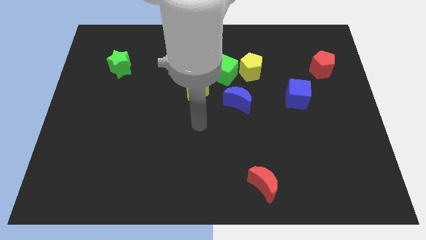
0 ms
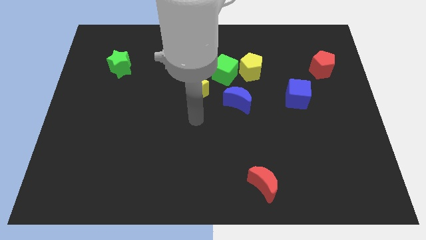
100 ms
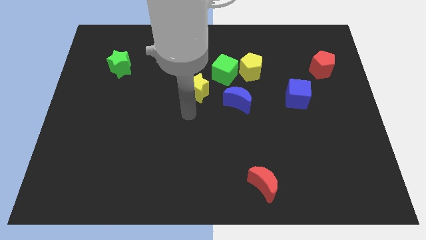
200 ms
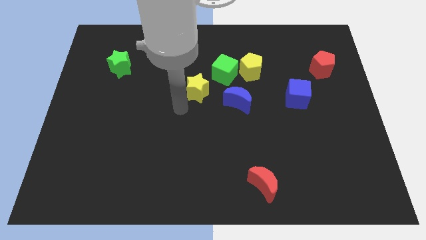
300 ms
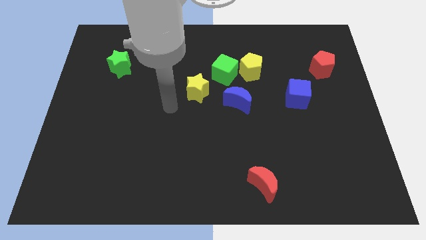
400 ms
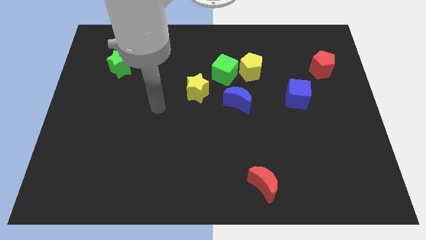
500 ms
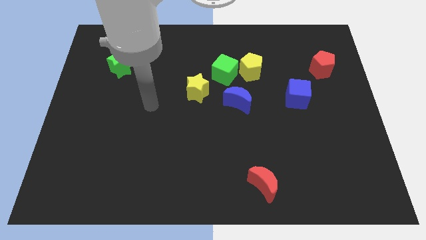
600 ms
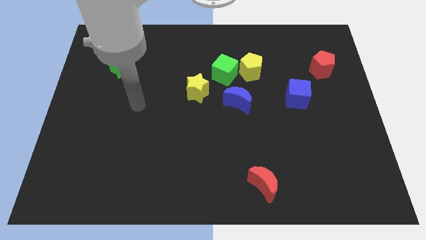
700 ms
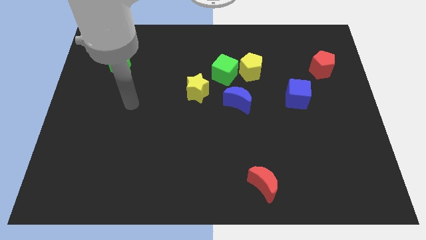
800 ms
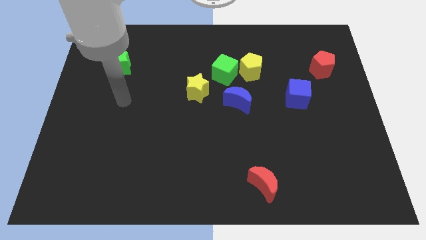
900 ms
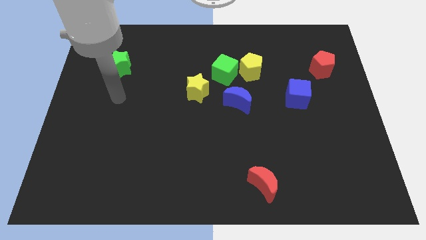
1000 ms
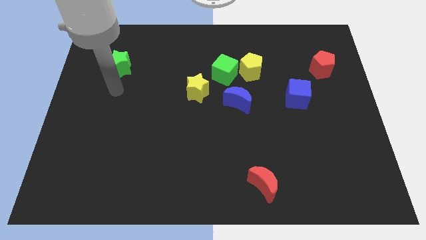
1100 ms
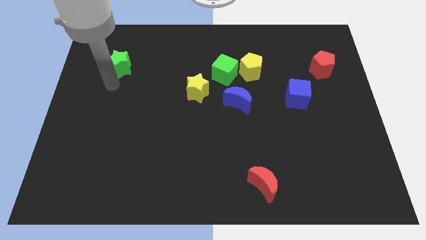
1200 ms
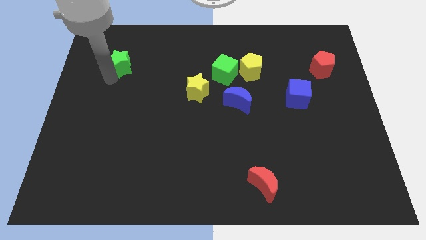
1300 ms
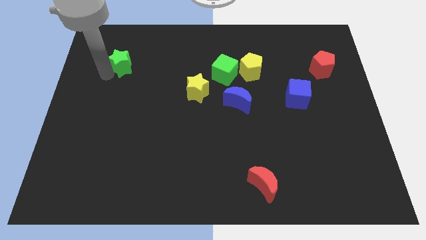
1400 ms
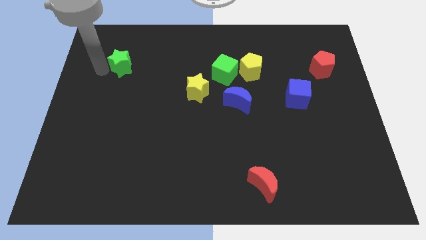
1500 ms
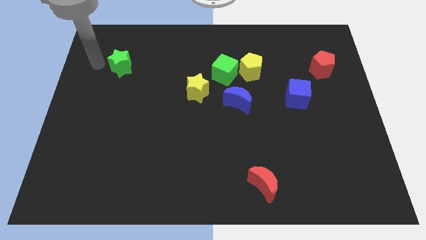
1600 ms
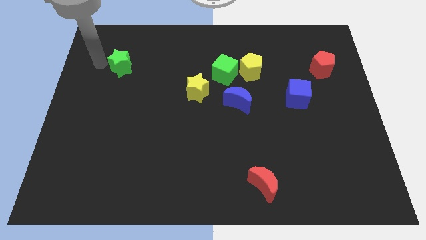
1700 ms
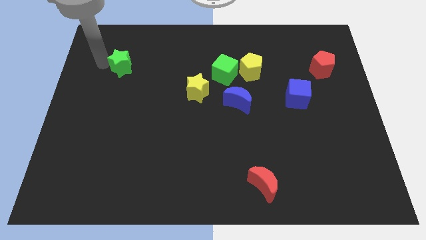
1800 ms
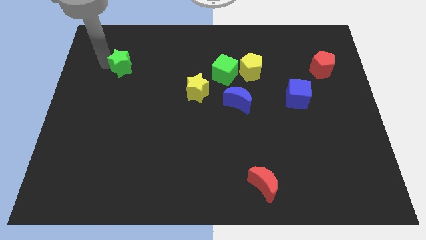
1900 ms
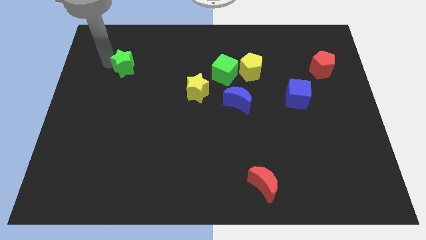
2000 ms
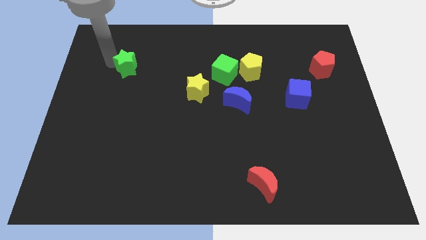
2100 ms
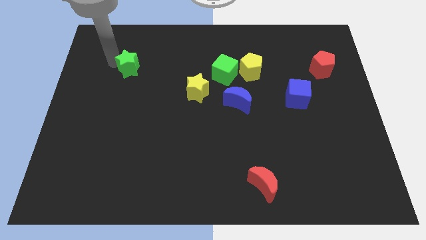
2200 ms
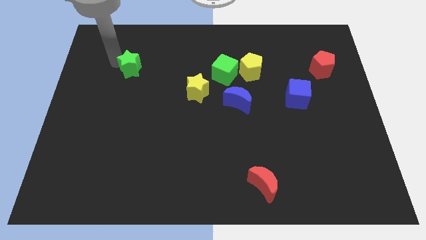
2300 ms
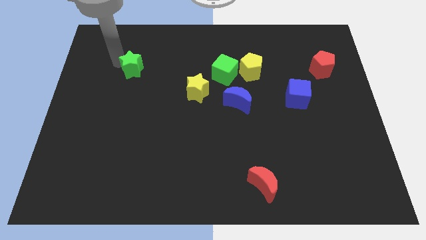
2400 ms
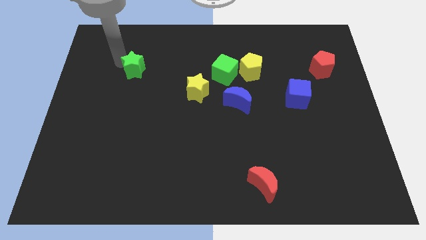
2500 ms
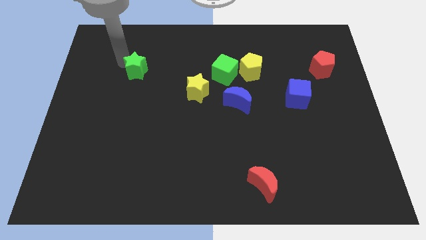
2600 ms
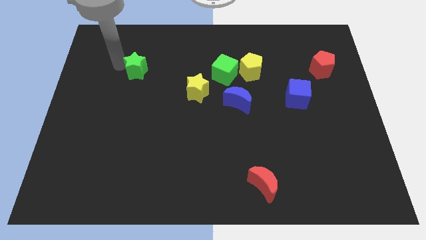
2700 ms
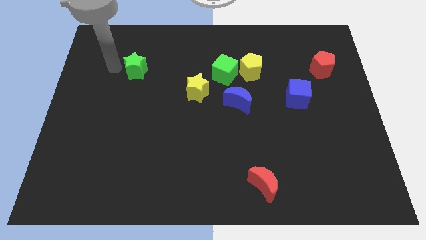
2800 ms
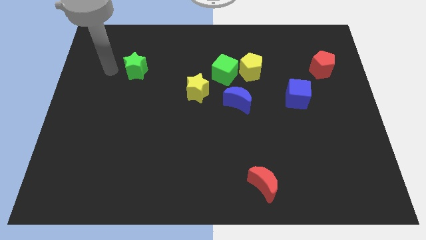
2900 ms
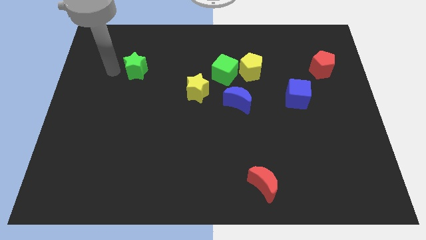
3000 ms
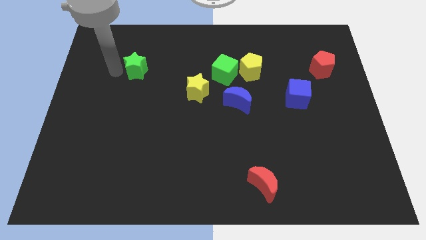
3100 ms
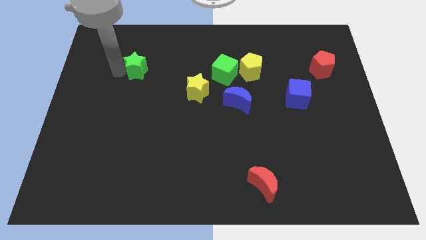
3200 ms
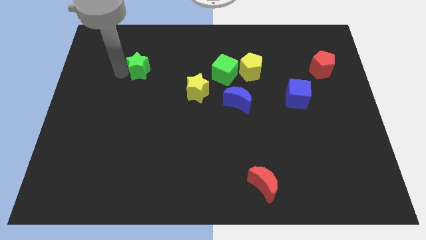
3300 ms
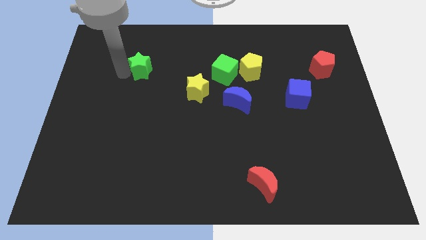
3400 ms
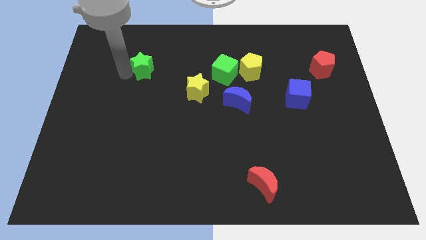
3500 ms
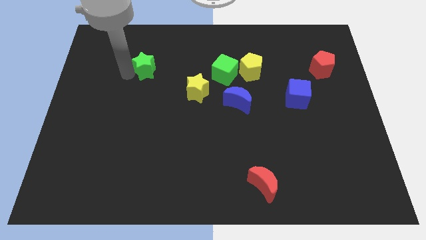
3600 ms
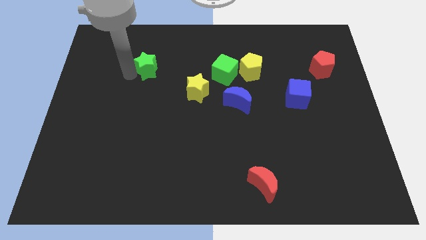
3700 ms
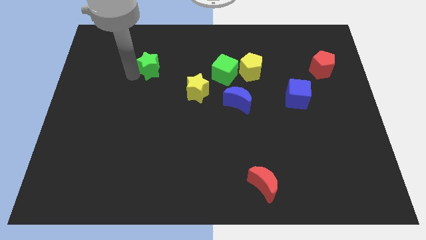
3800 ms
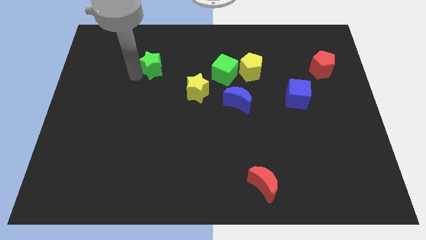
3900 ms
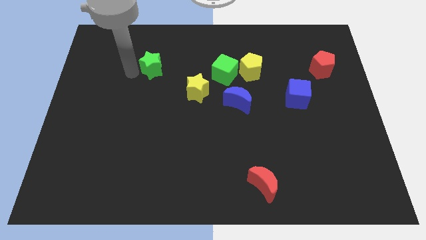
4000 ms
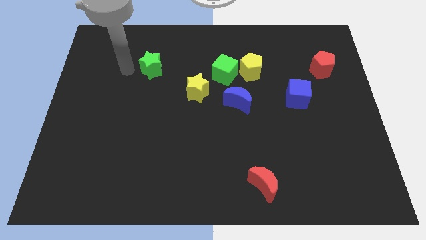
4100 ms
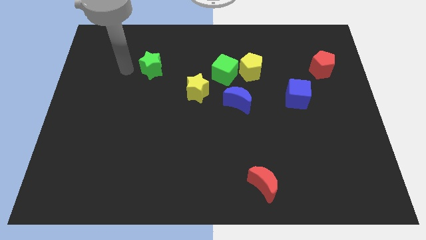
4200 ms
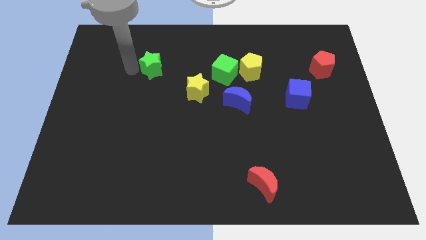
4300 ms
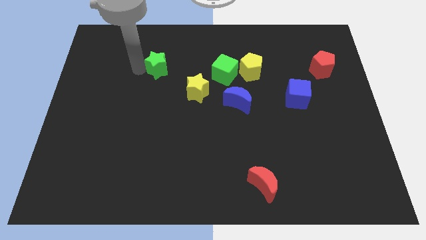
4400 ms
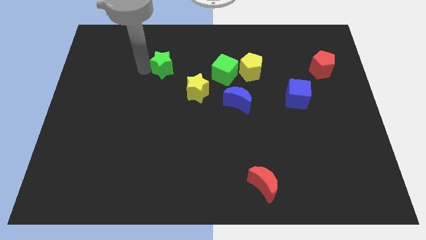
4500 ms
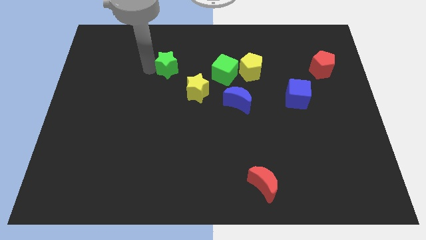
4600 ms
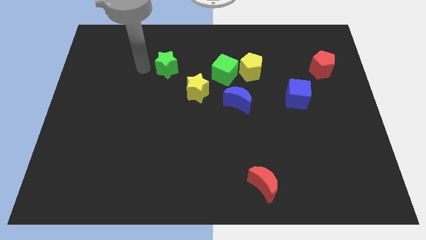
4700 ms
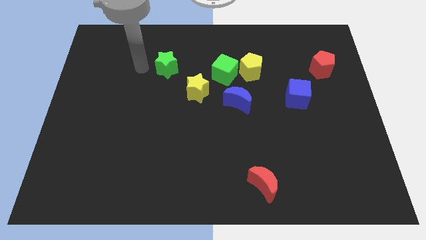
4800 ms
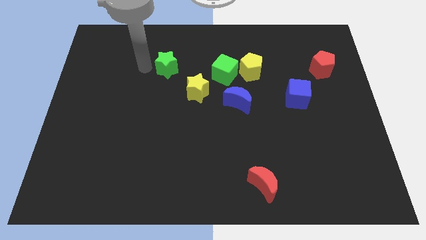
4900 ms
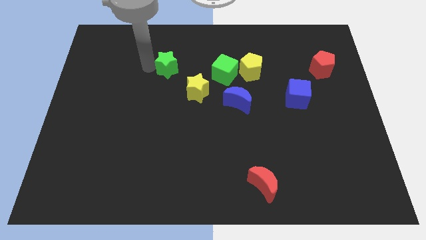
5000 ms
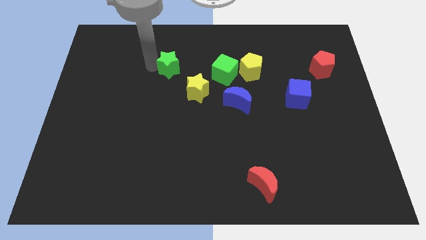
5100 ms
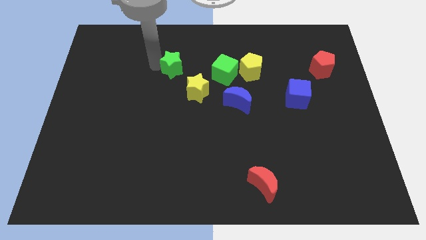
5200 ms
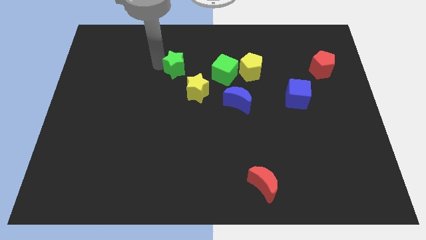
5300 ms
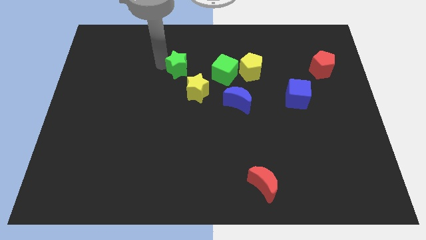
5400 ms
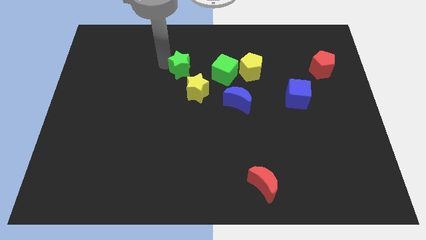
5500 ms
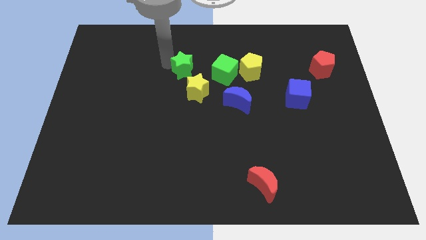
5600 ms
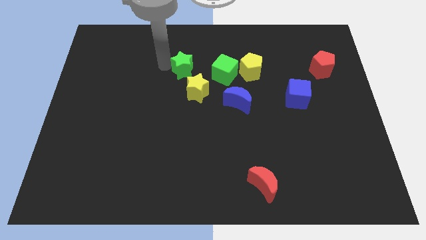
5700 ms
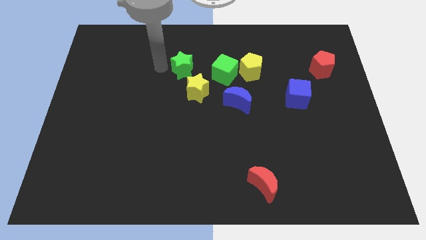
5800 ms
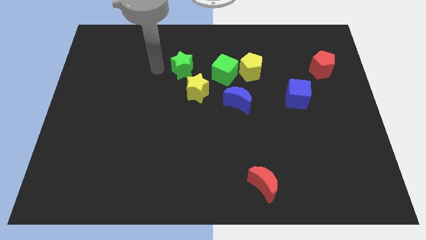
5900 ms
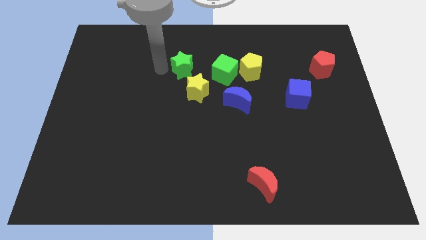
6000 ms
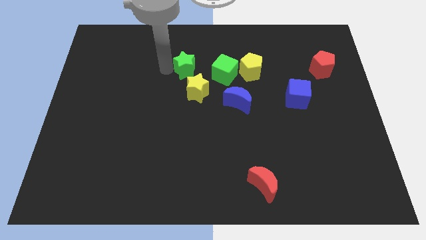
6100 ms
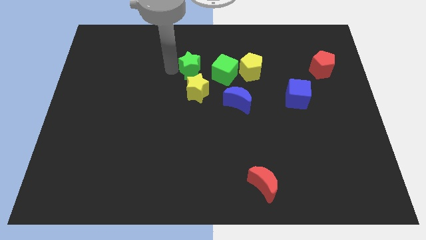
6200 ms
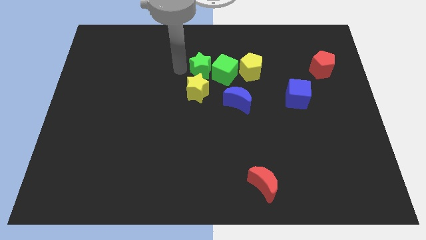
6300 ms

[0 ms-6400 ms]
put the green star towards the green cube
